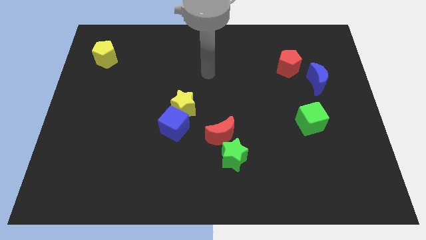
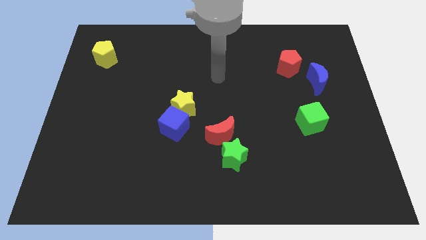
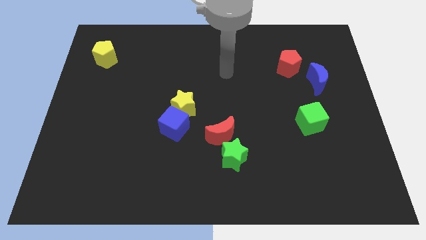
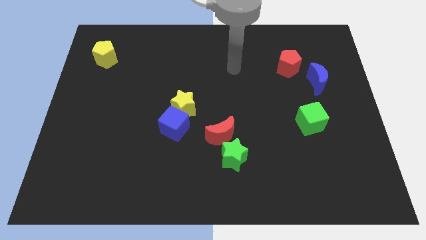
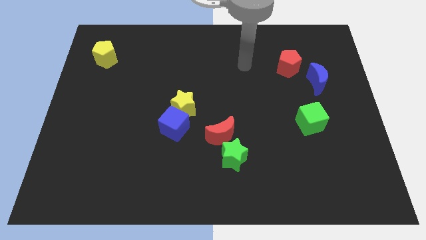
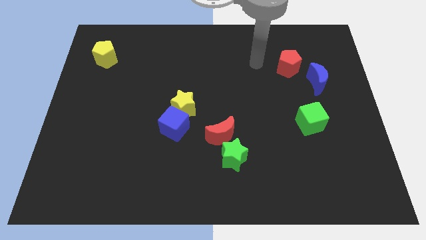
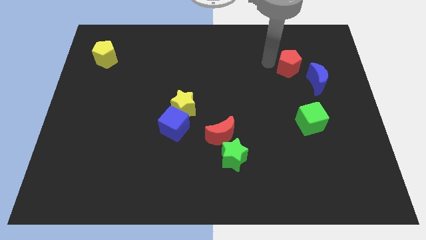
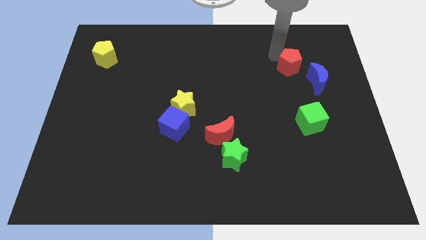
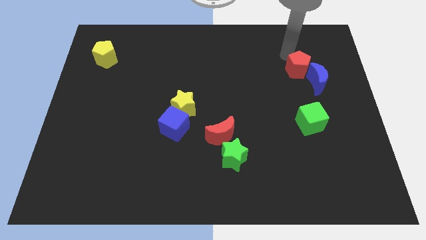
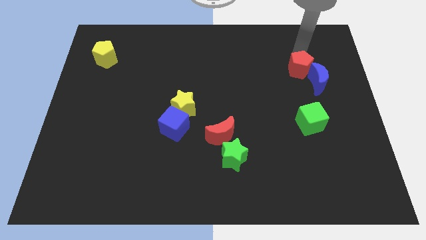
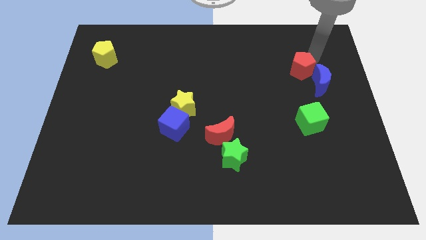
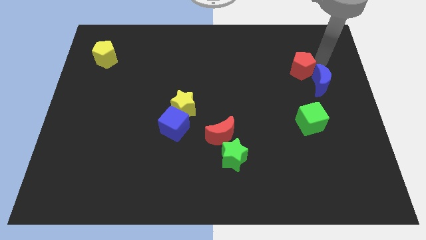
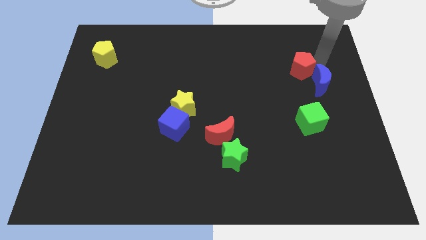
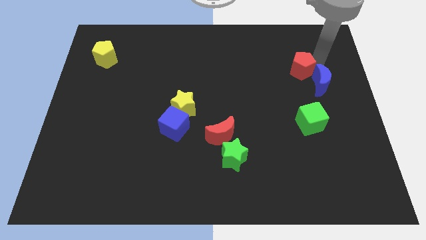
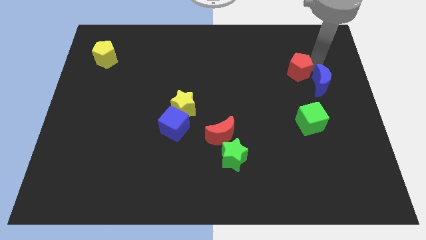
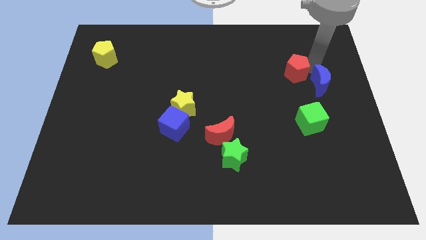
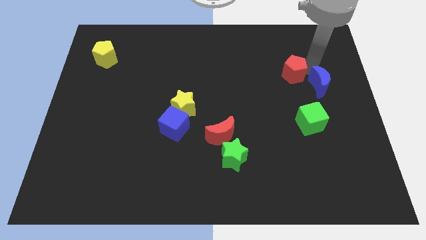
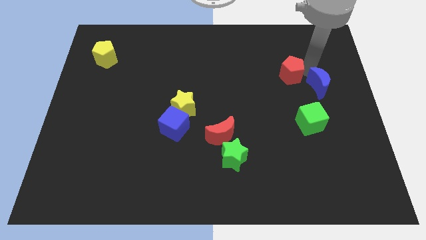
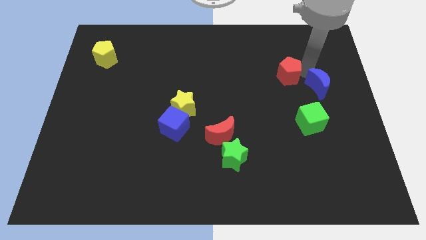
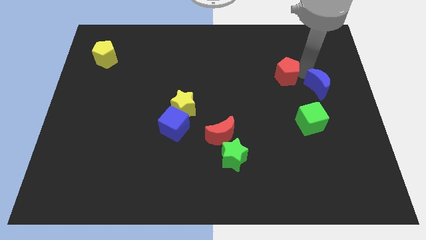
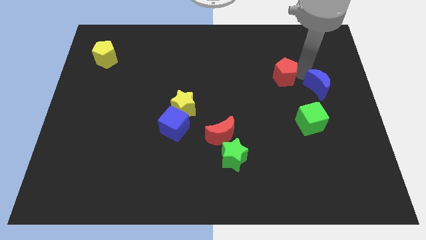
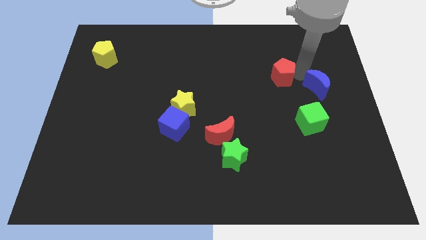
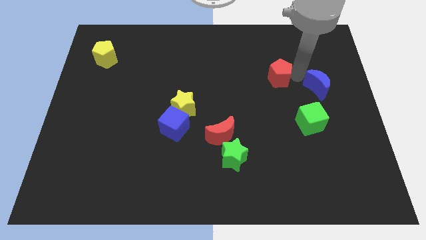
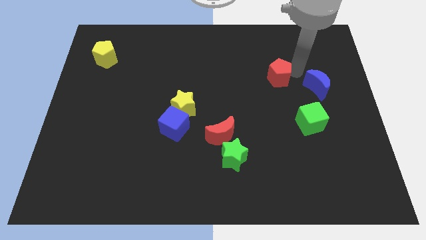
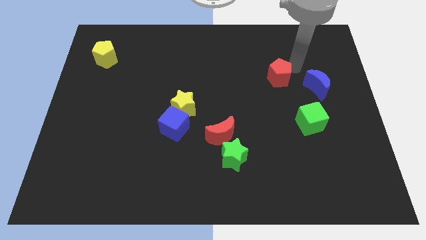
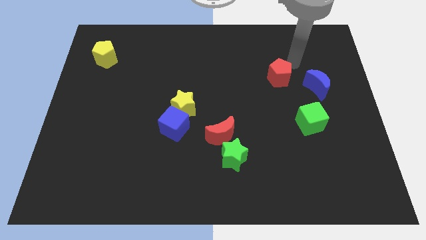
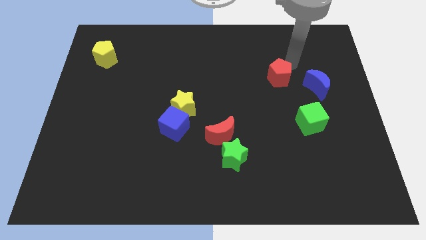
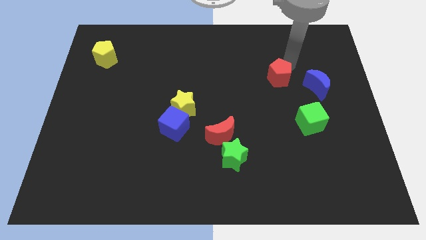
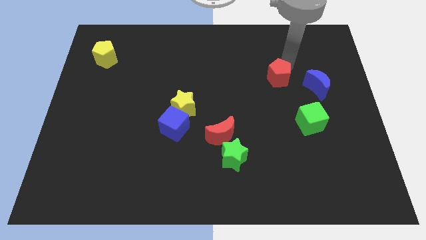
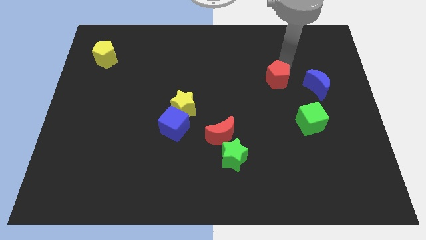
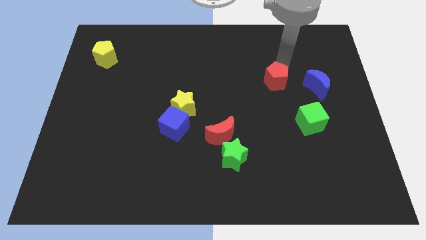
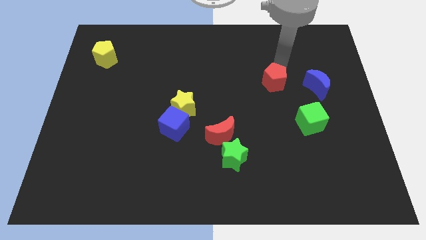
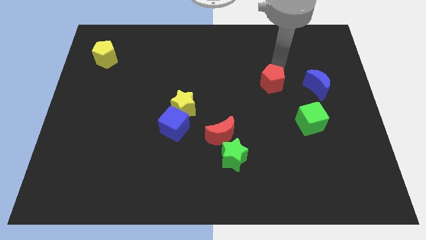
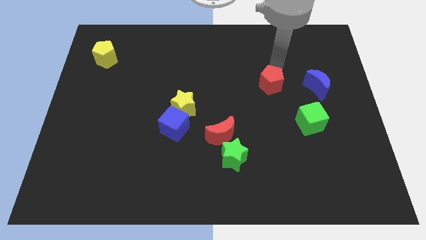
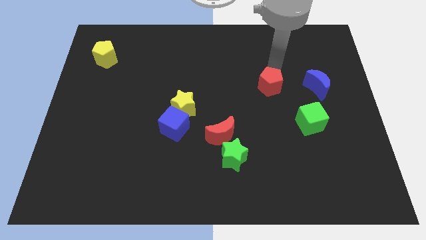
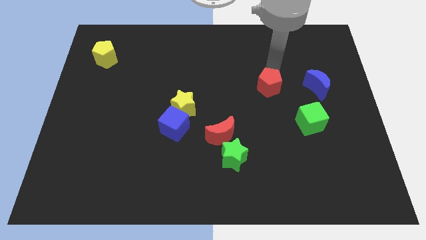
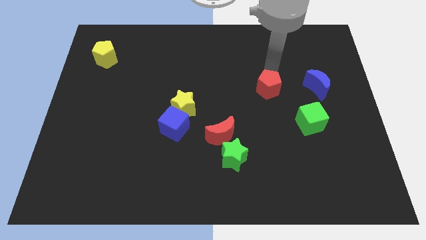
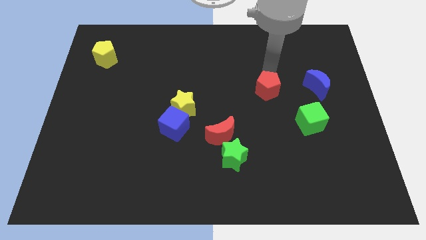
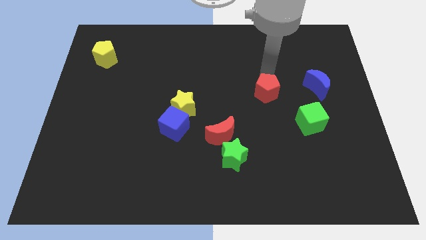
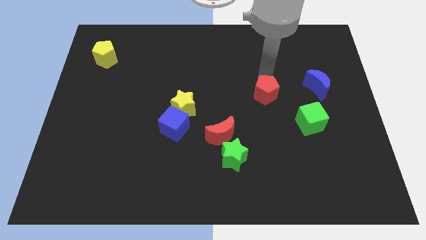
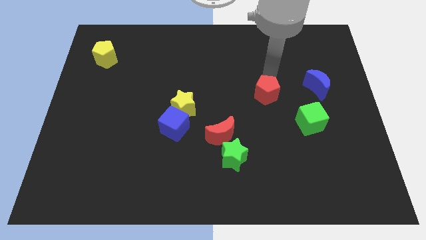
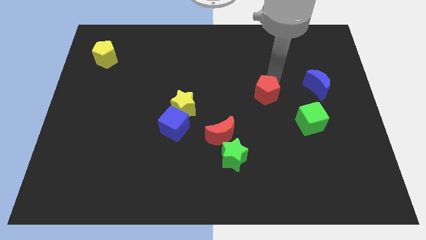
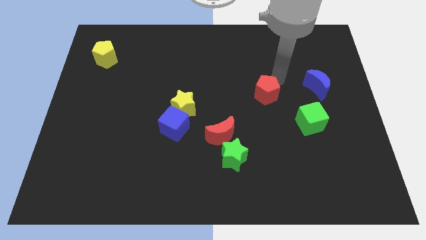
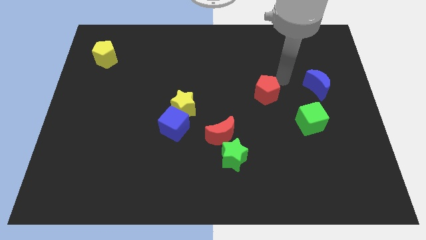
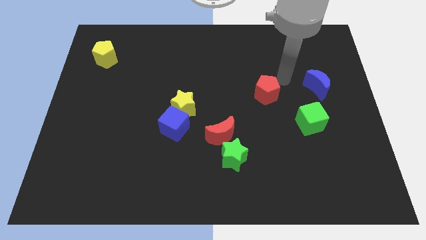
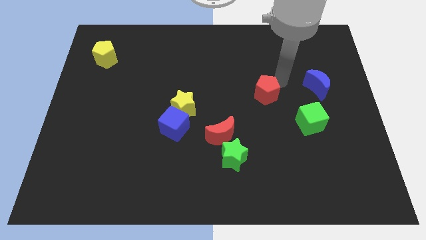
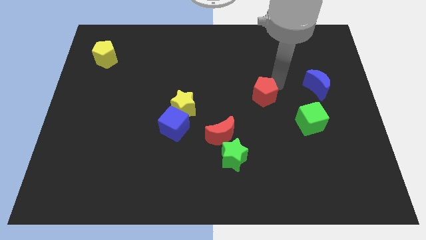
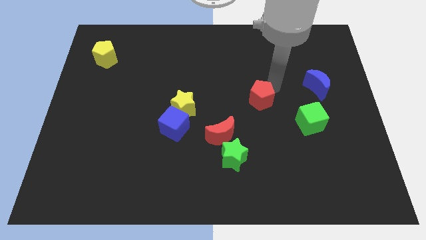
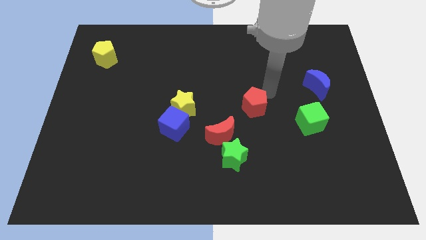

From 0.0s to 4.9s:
put the red pentagon to the right side of the yellow star

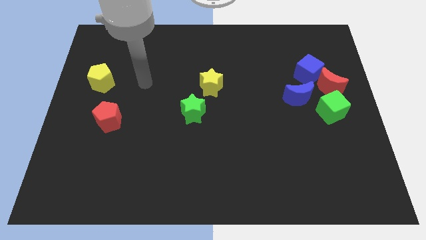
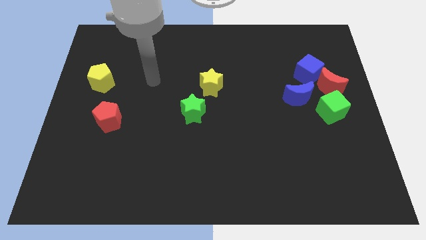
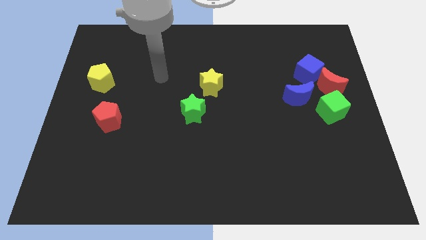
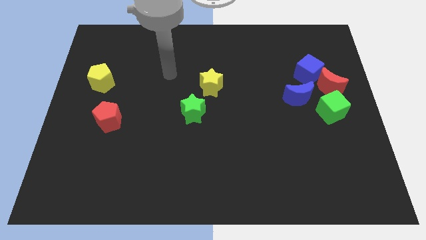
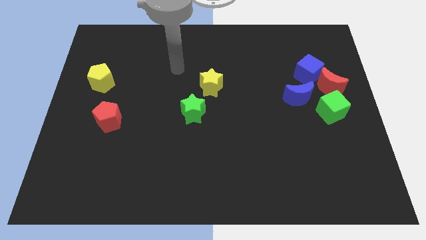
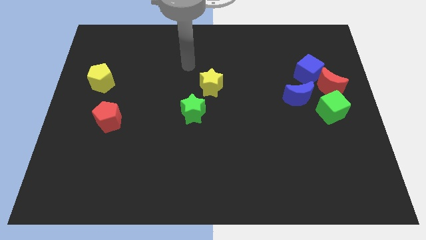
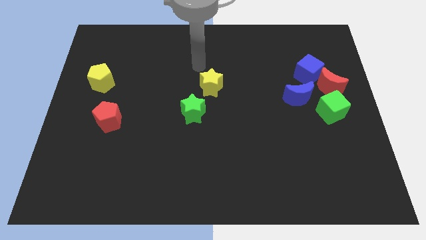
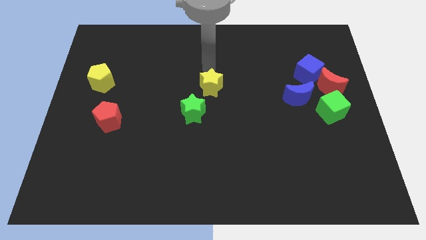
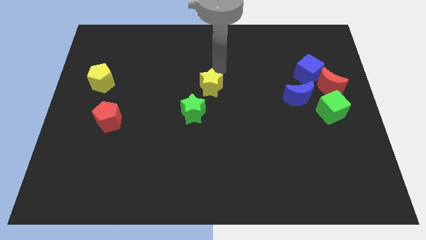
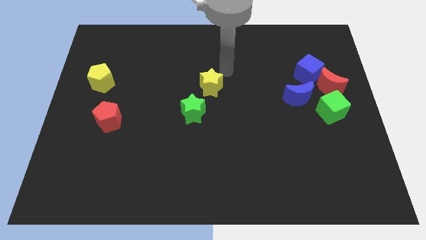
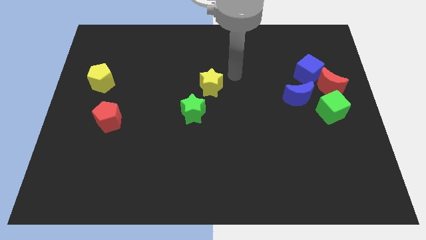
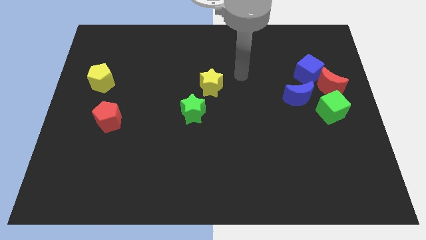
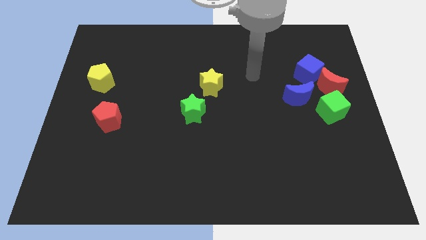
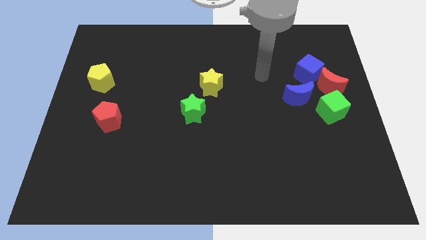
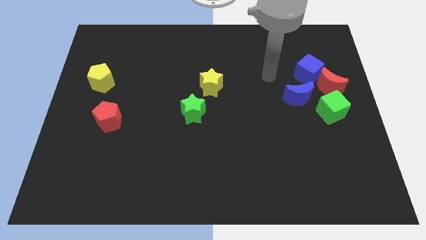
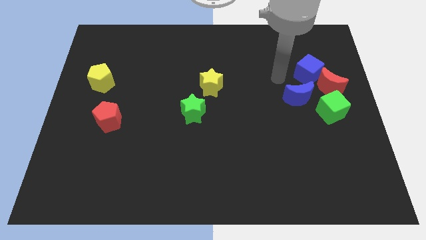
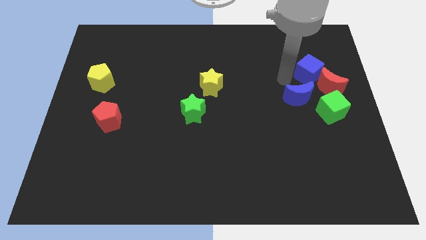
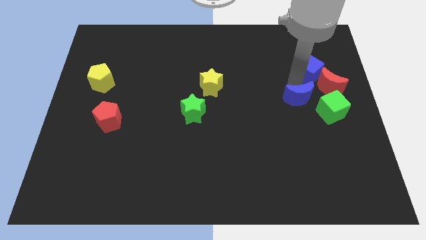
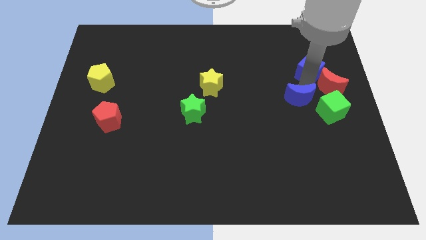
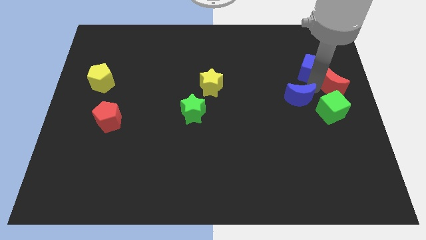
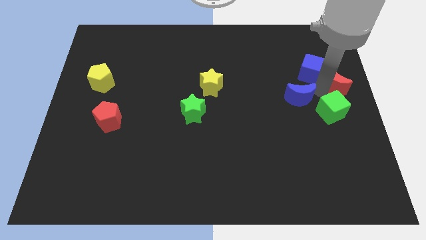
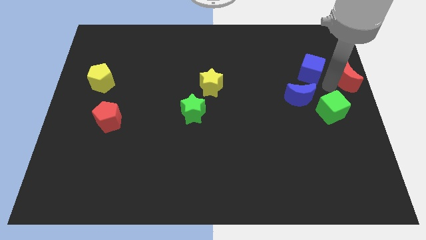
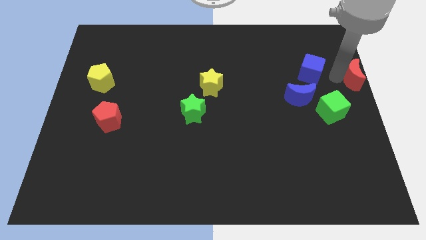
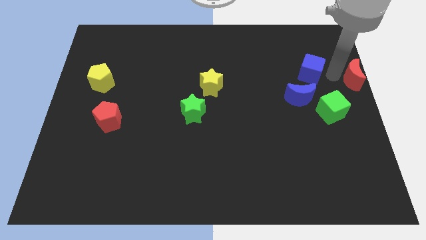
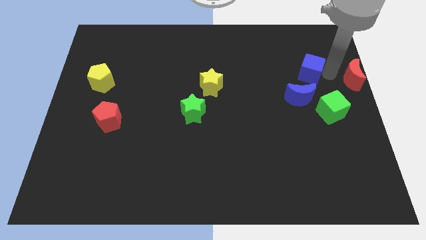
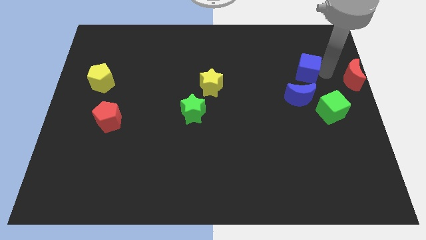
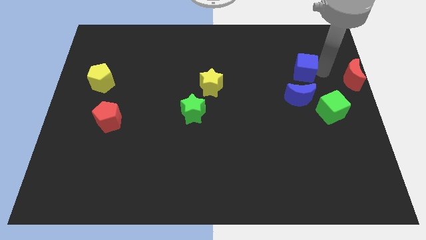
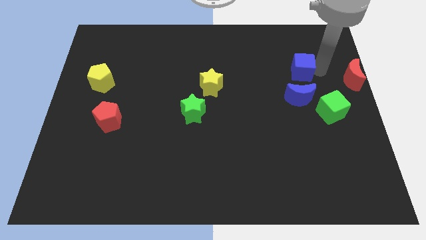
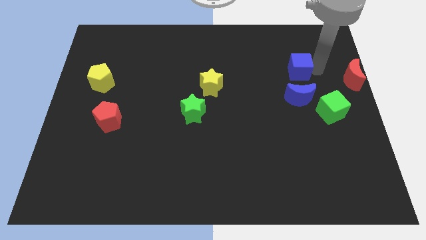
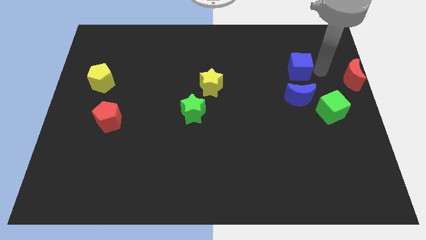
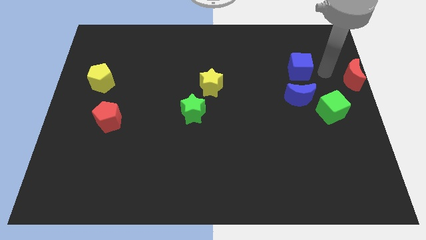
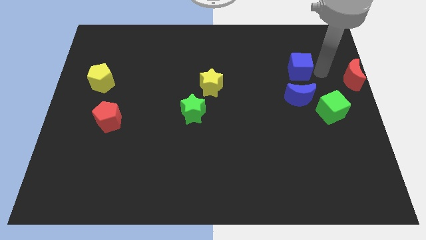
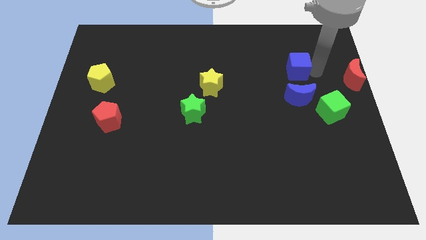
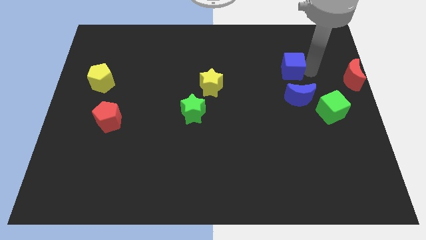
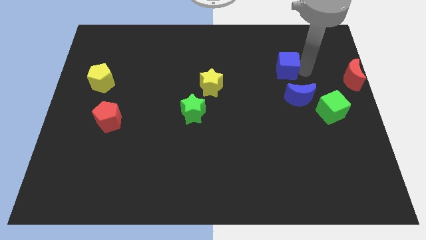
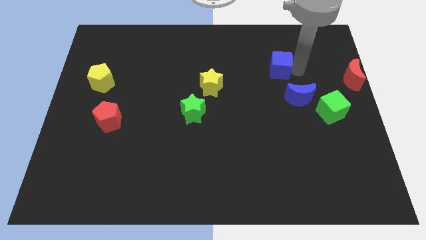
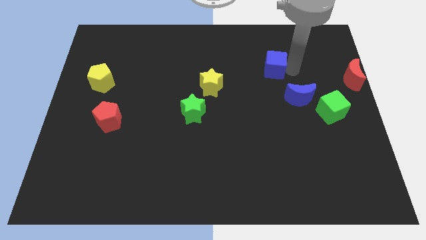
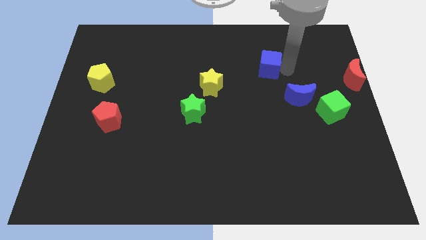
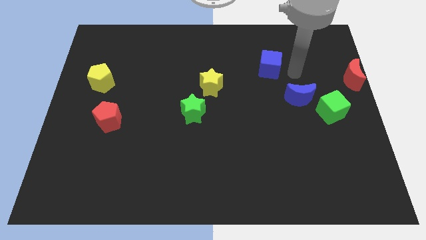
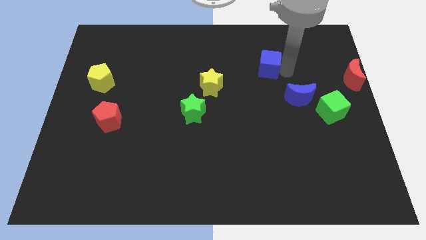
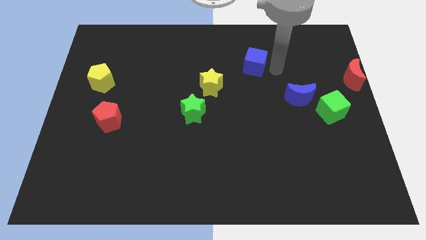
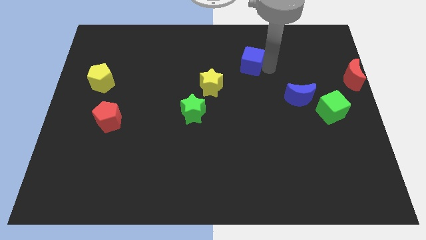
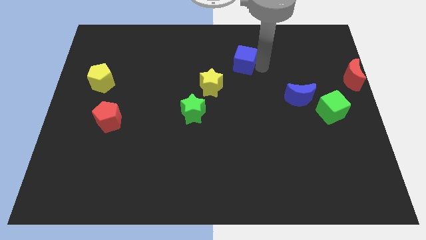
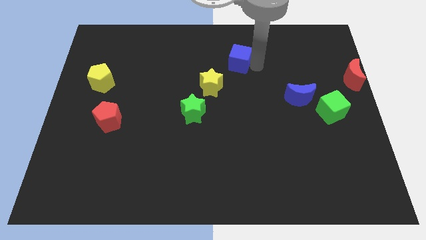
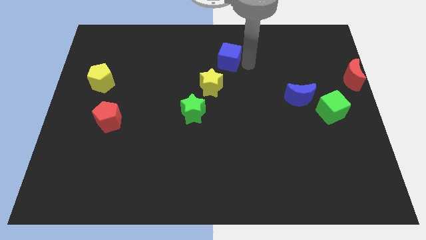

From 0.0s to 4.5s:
slide the blue cube to the top of the yellow star
